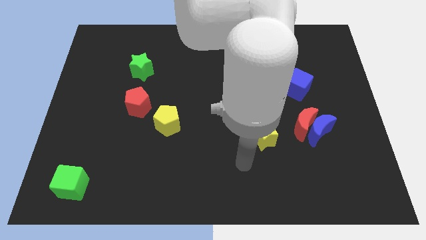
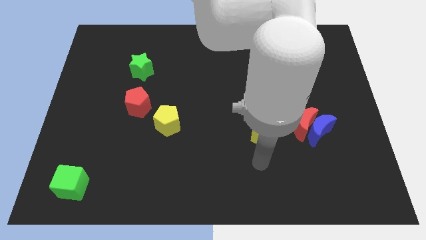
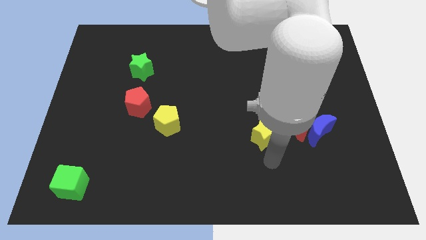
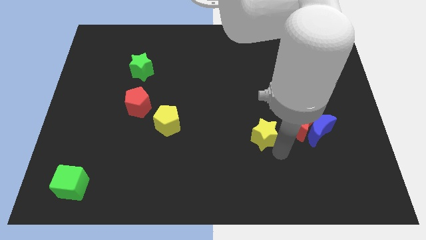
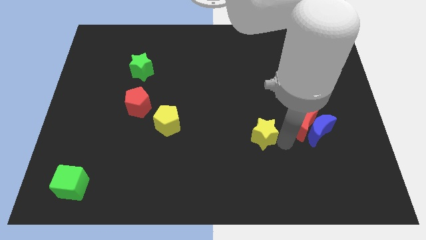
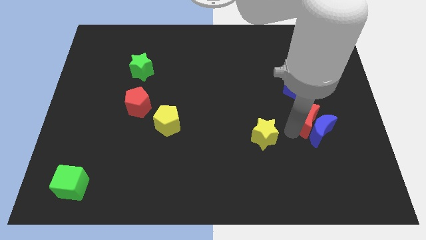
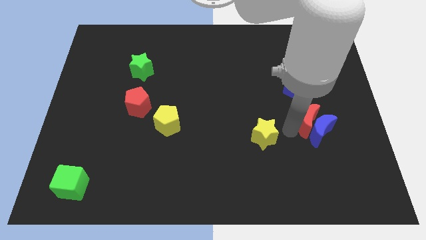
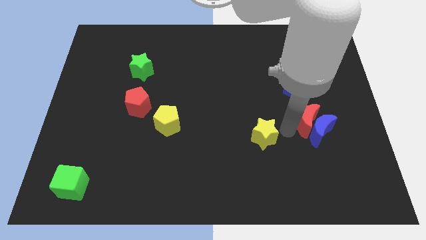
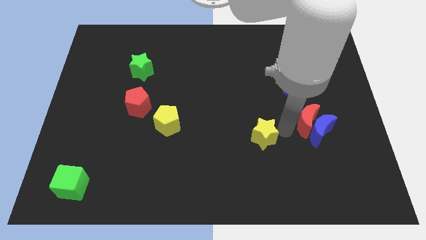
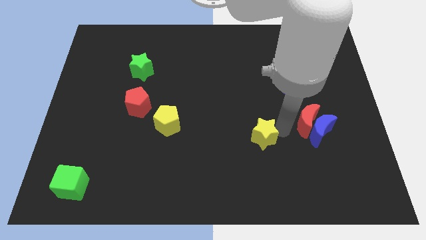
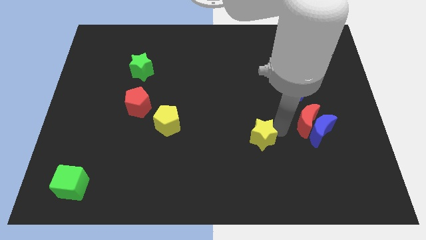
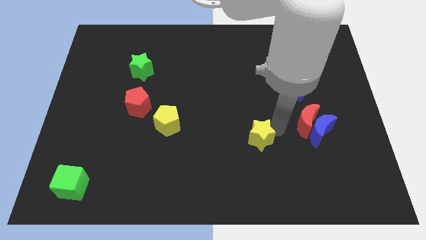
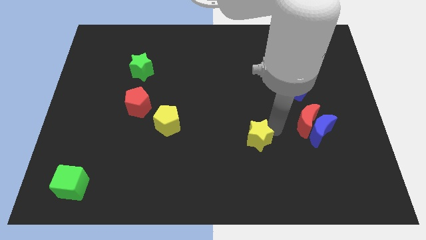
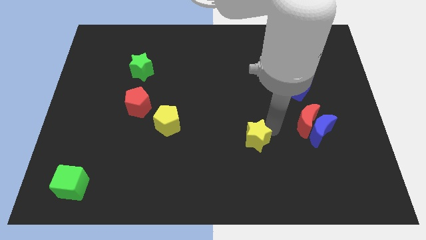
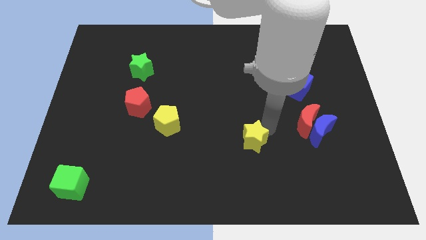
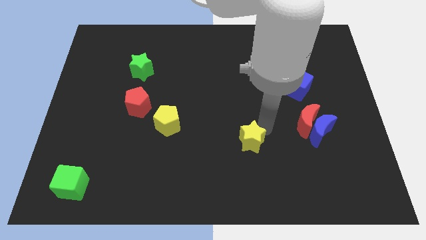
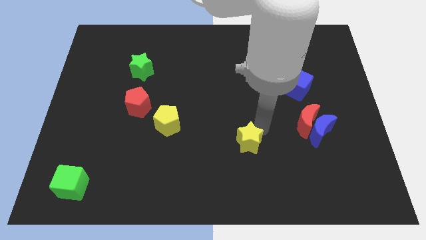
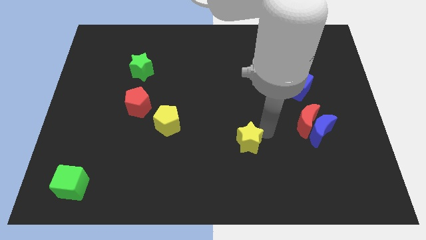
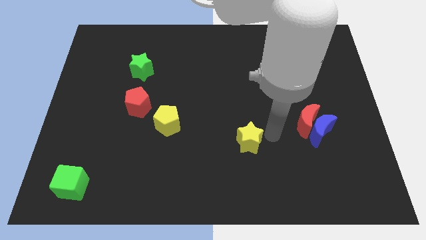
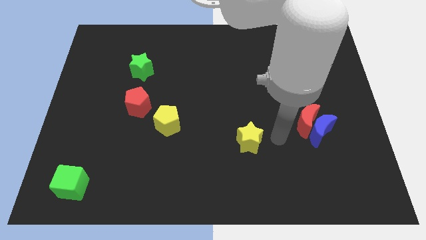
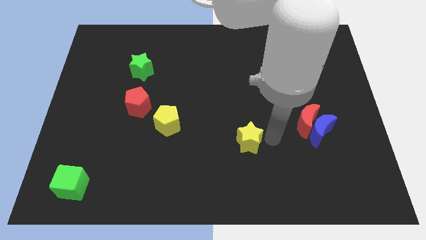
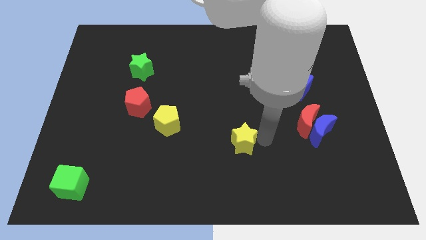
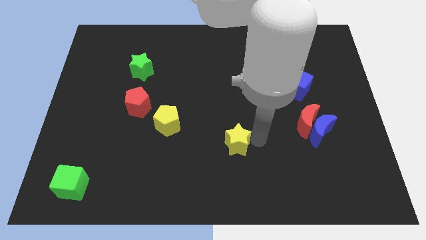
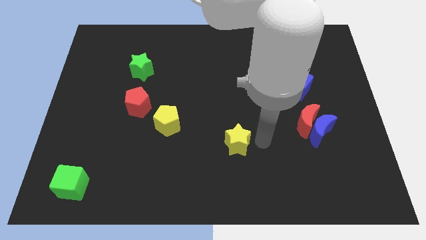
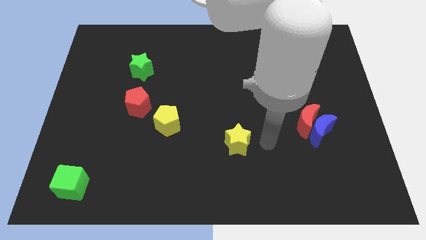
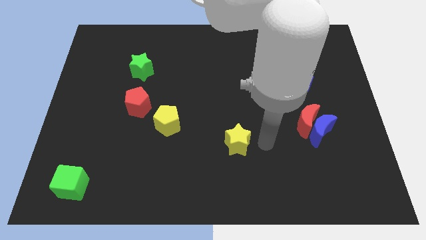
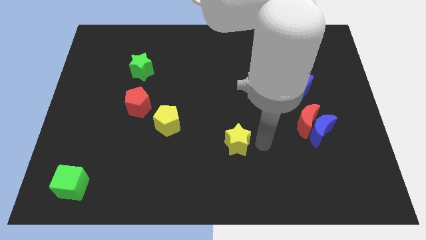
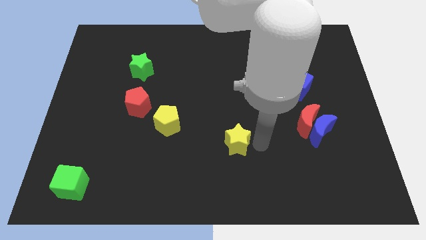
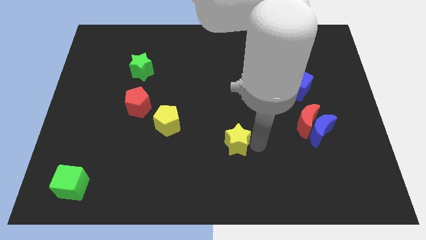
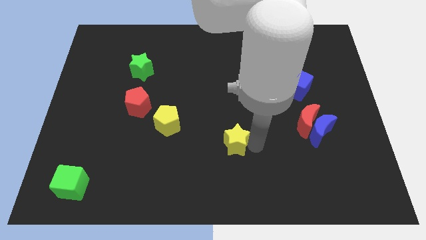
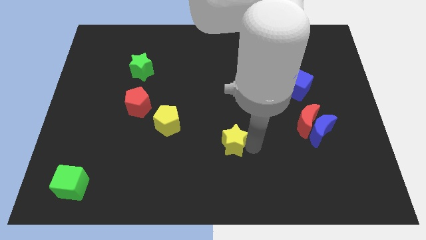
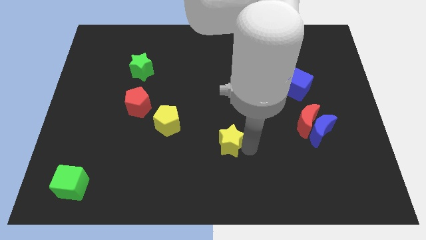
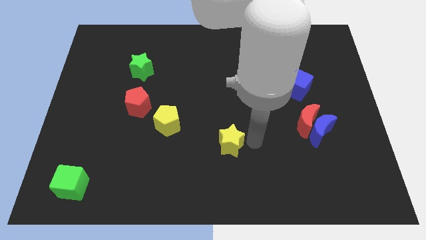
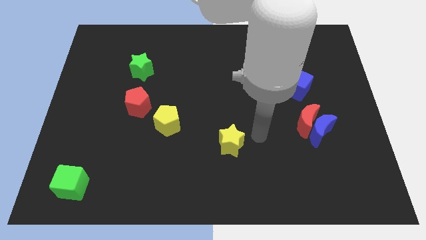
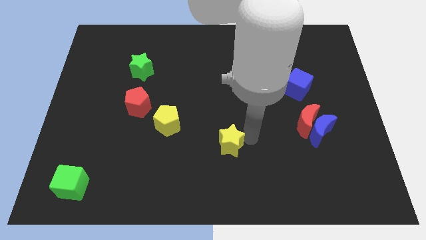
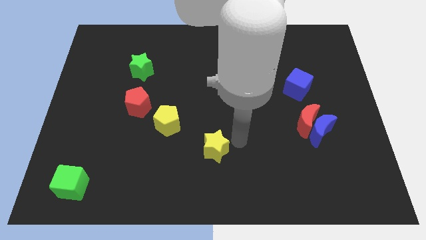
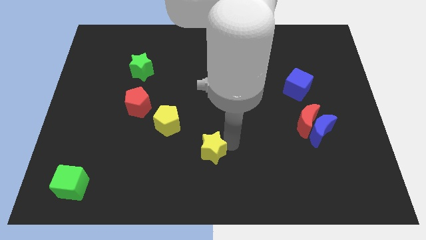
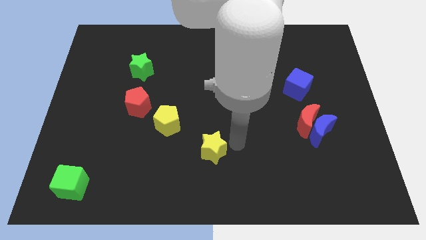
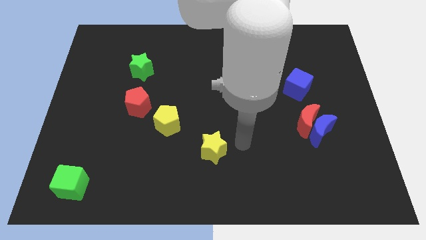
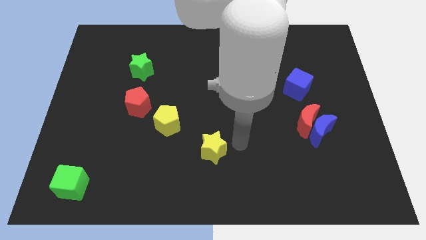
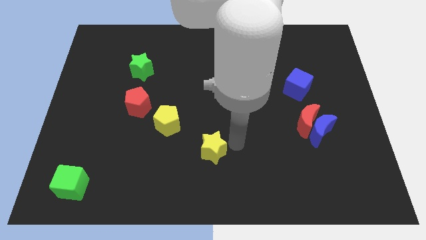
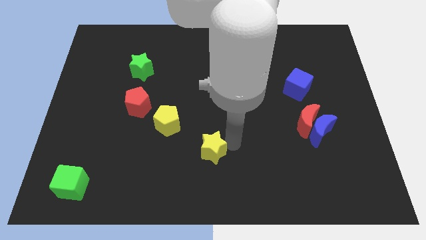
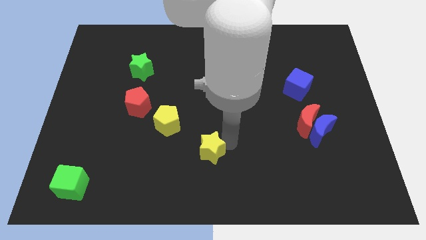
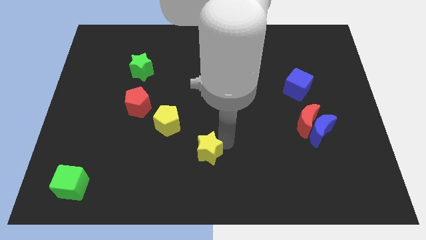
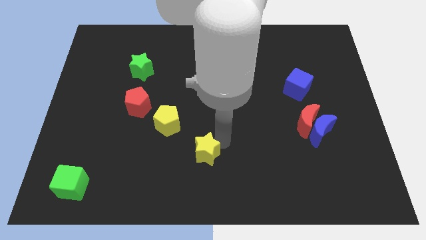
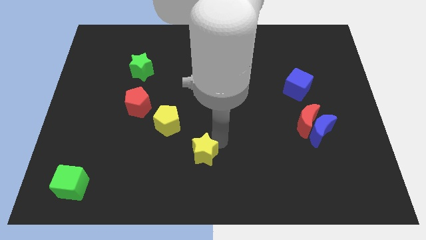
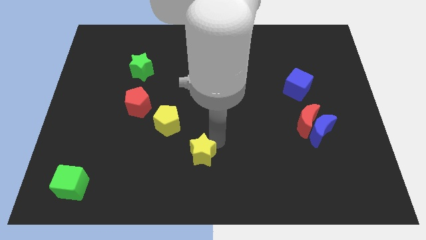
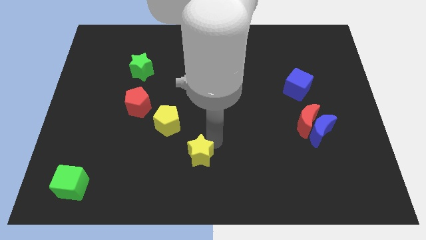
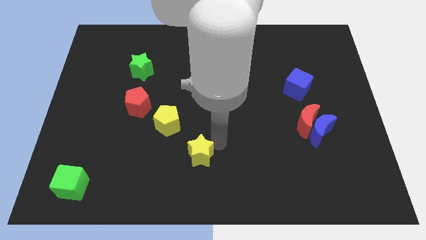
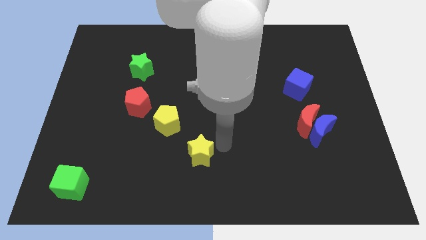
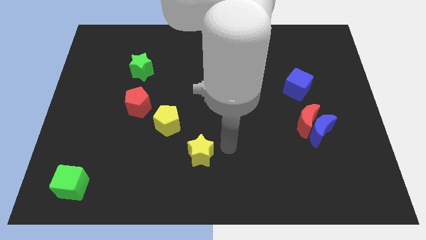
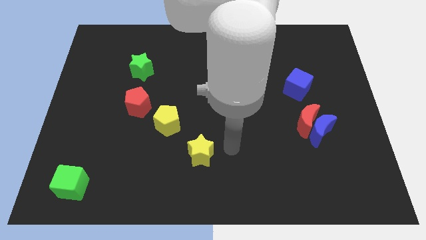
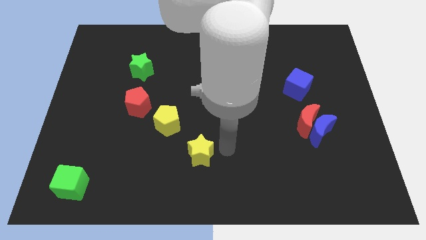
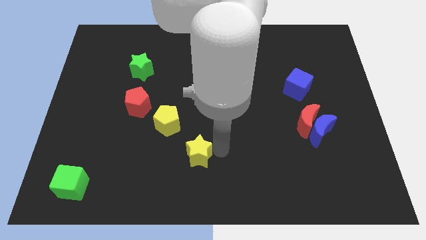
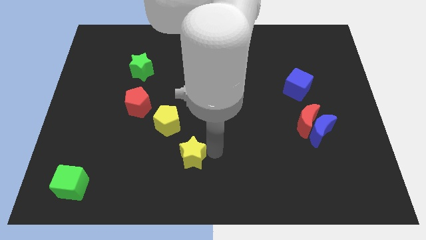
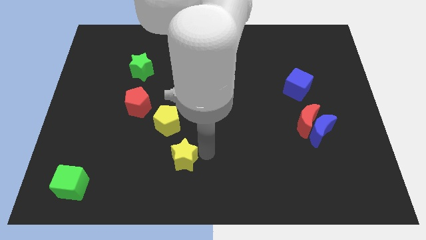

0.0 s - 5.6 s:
put the yellow star to the bottom of the yellow pentagon

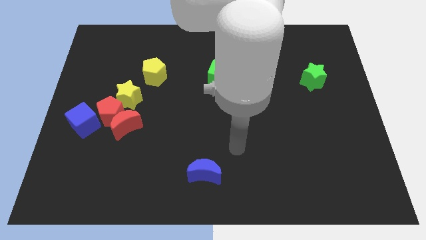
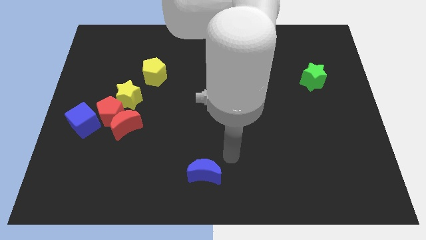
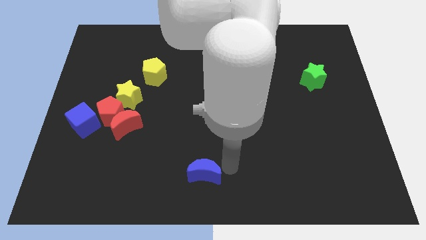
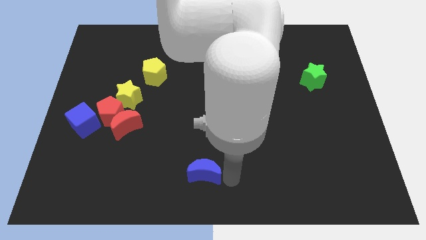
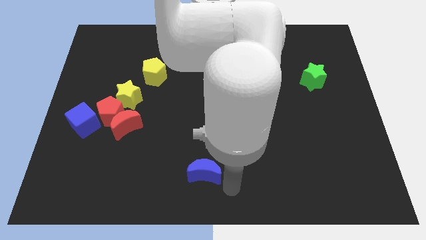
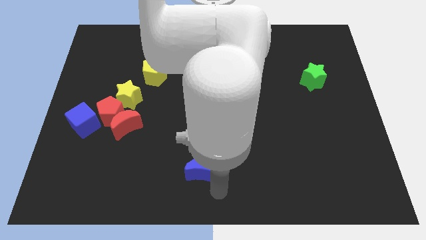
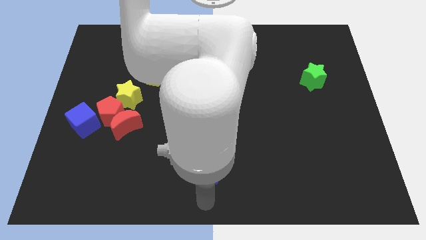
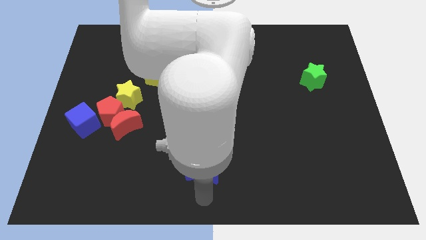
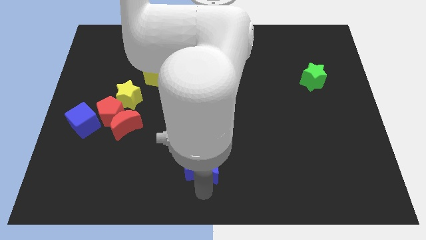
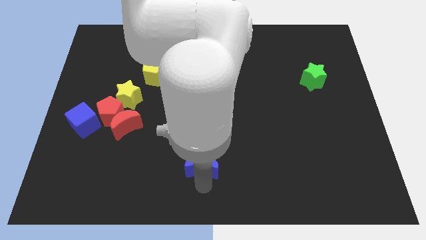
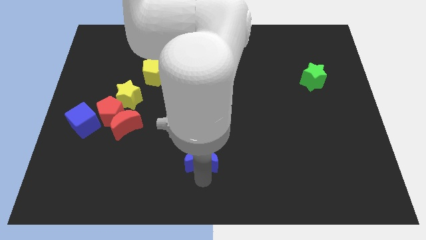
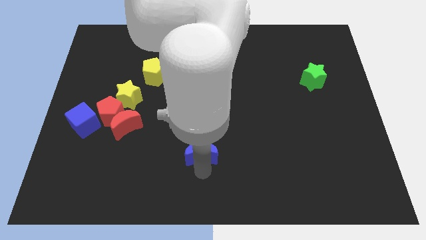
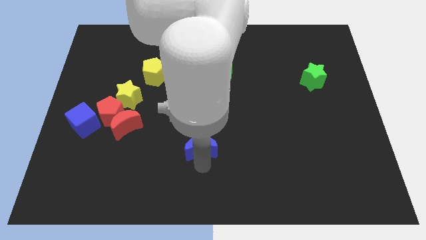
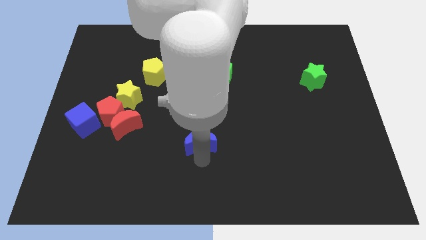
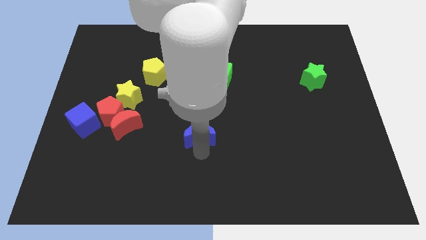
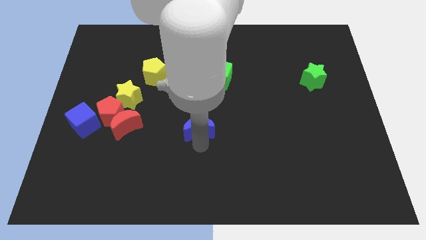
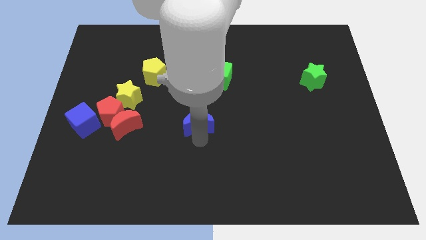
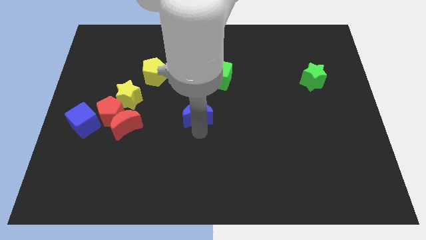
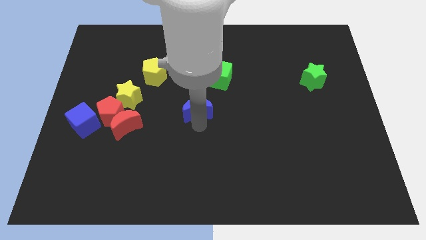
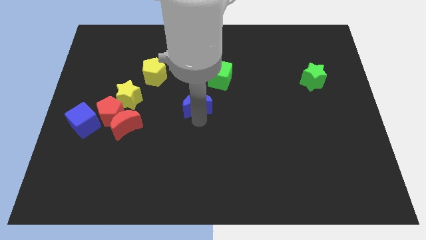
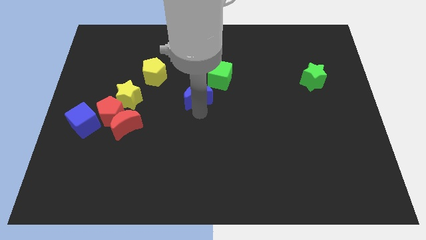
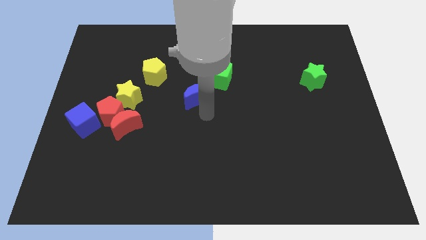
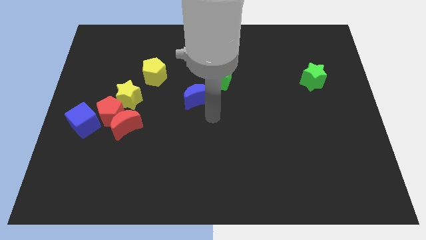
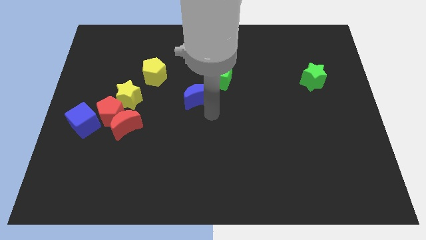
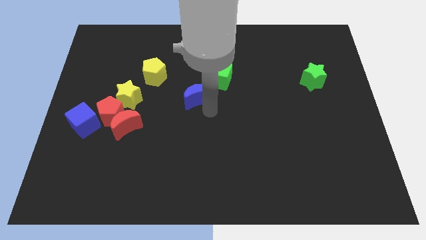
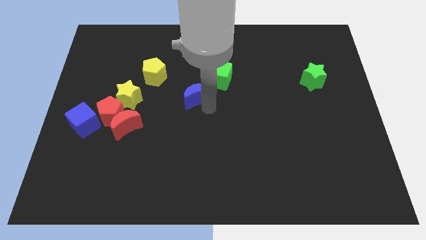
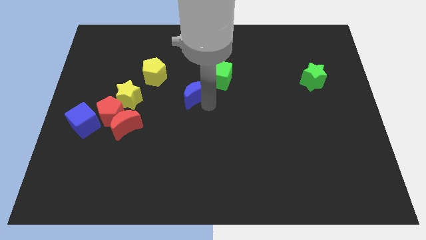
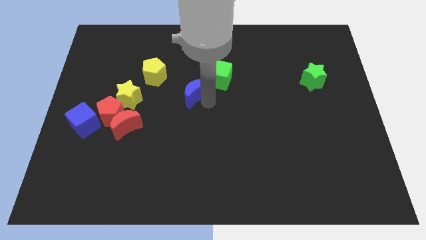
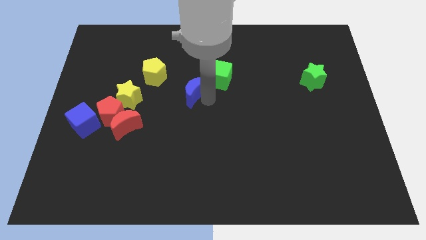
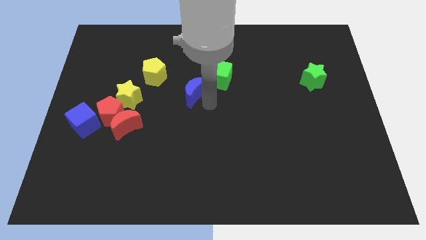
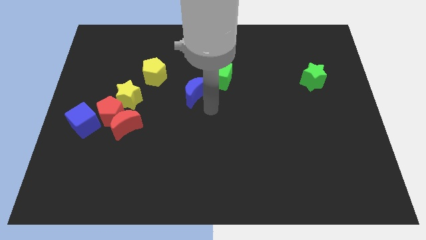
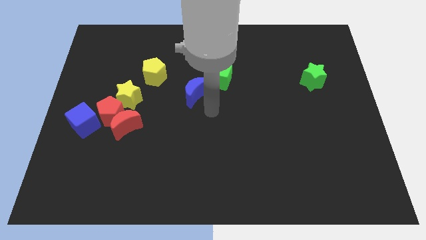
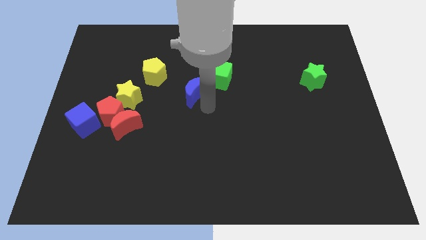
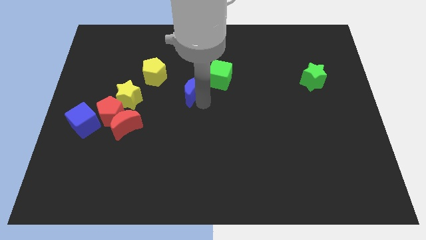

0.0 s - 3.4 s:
move the blue moon left of the green cube
